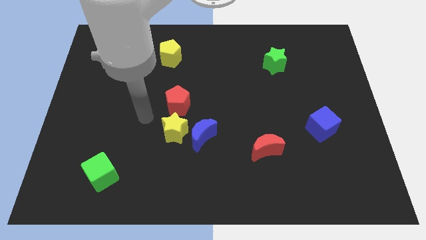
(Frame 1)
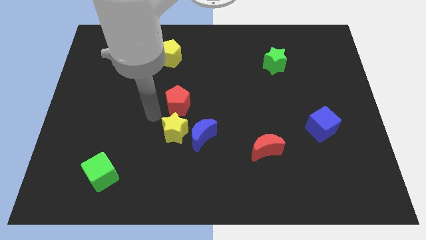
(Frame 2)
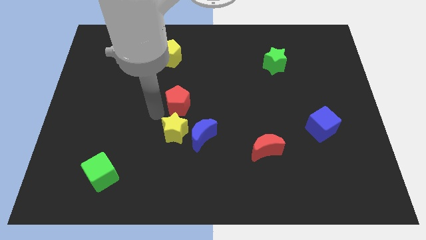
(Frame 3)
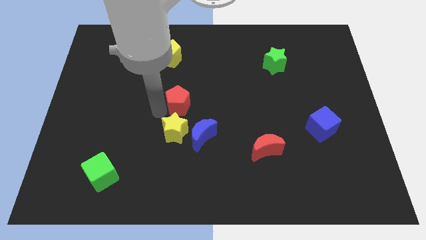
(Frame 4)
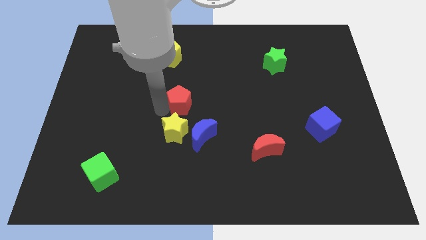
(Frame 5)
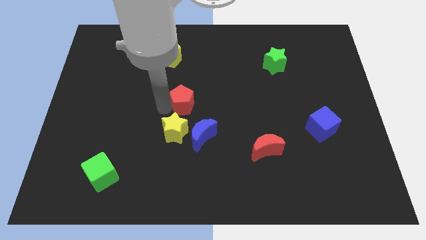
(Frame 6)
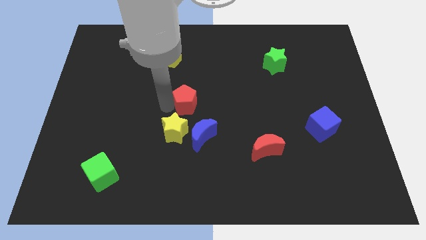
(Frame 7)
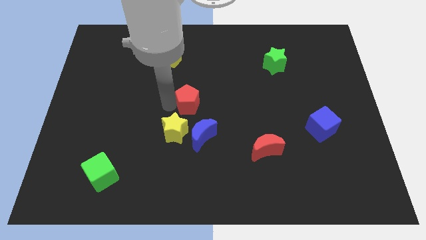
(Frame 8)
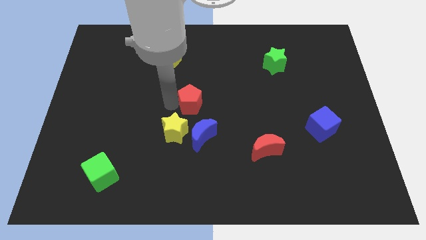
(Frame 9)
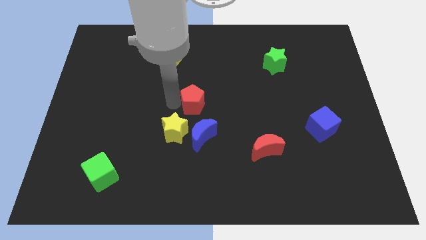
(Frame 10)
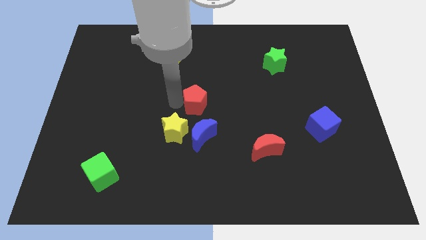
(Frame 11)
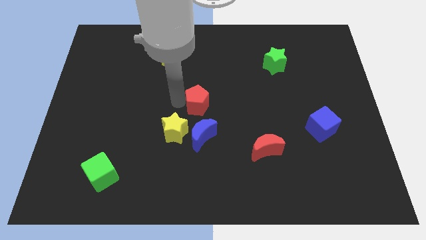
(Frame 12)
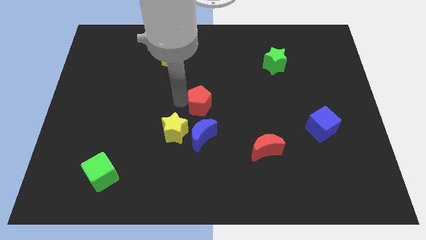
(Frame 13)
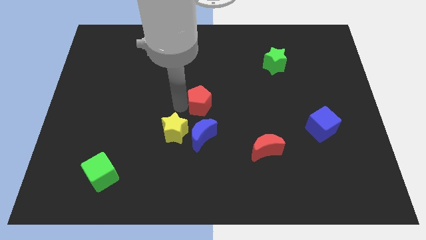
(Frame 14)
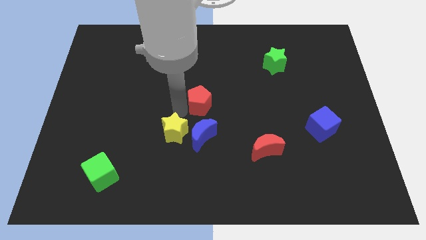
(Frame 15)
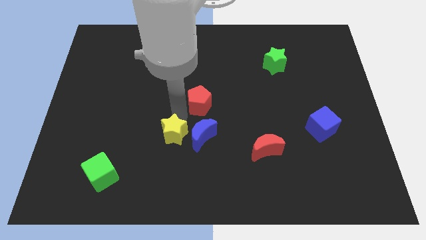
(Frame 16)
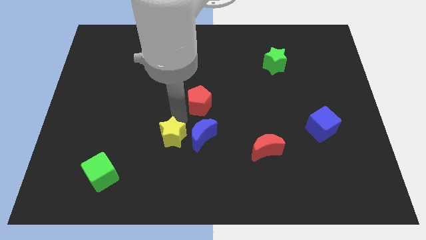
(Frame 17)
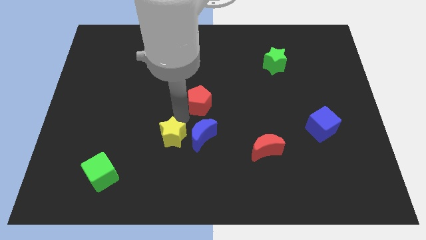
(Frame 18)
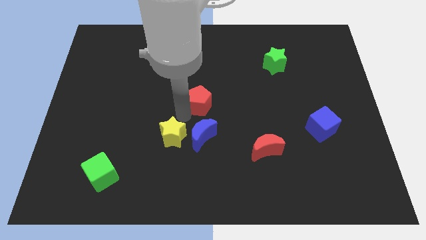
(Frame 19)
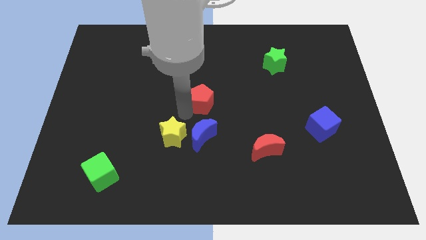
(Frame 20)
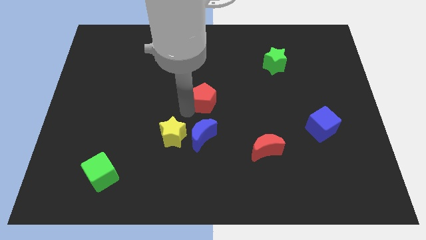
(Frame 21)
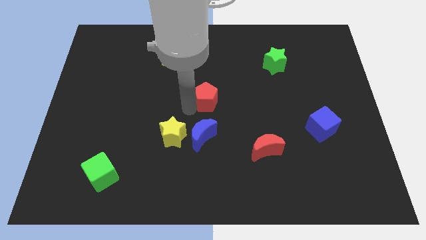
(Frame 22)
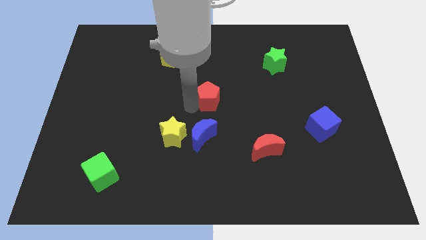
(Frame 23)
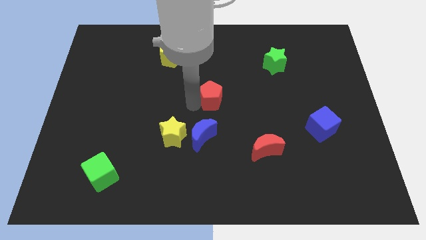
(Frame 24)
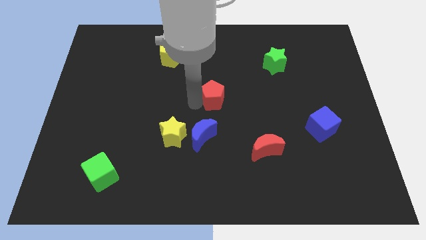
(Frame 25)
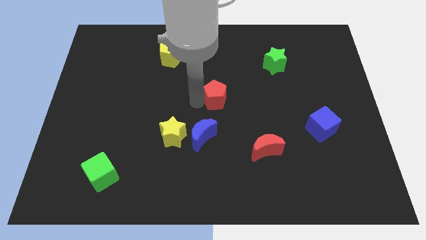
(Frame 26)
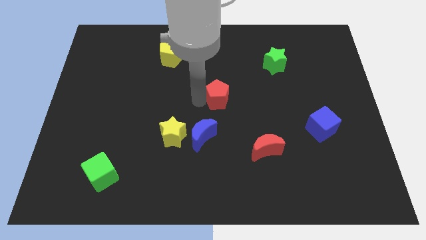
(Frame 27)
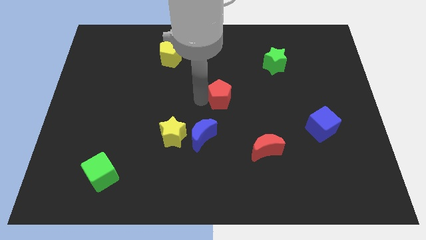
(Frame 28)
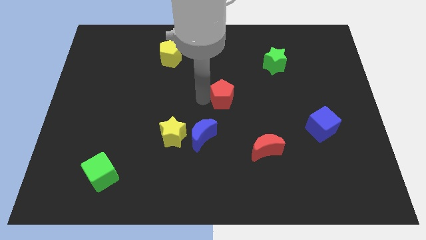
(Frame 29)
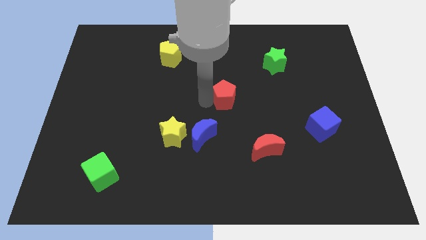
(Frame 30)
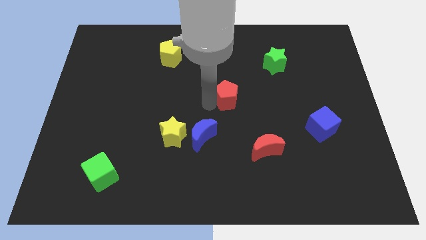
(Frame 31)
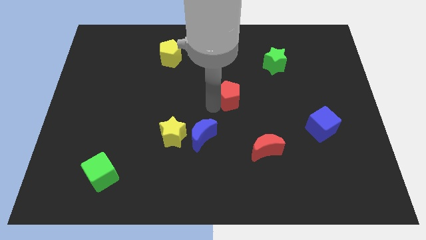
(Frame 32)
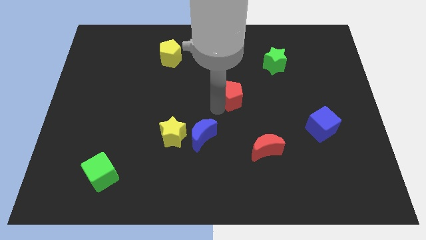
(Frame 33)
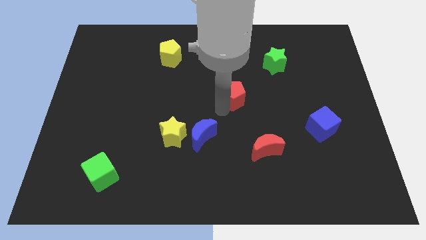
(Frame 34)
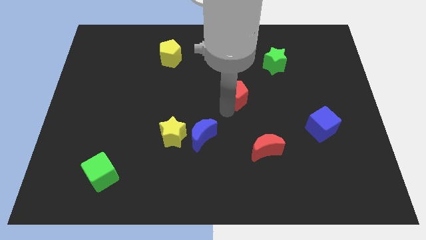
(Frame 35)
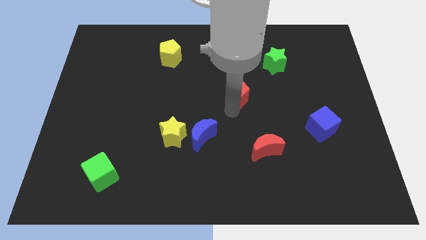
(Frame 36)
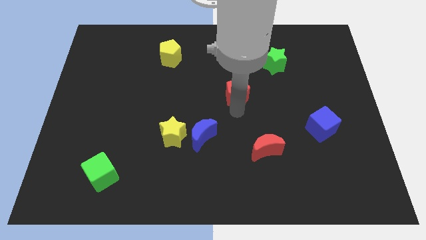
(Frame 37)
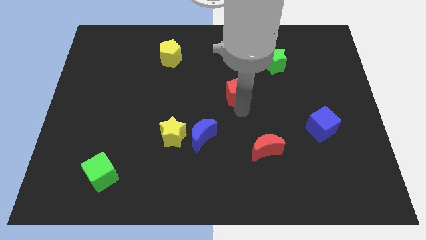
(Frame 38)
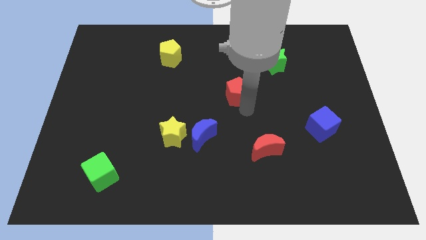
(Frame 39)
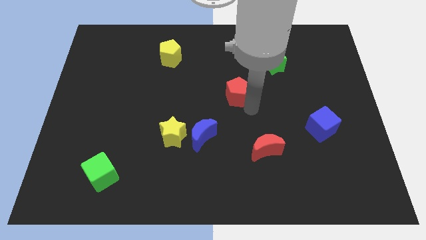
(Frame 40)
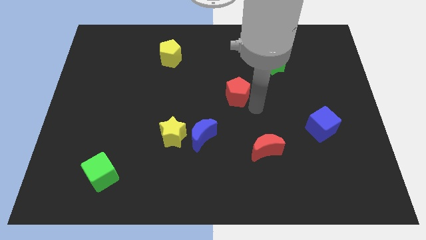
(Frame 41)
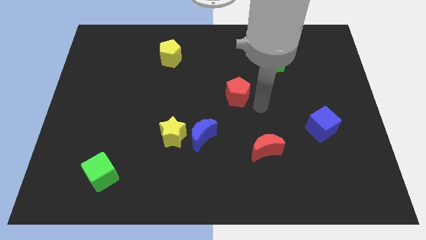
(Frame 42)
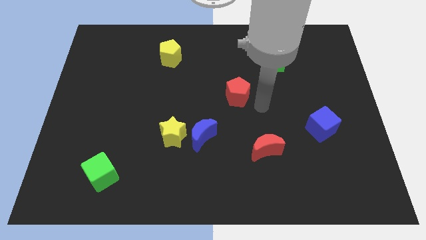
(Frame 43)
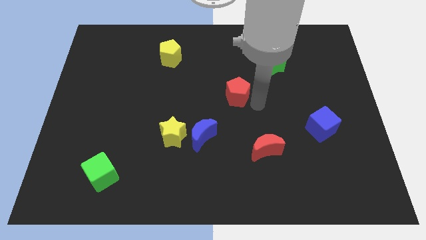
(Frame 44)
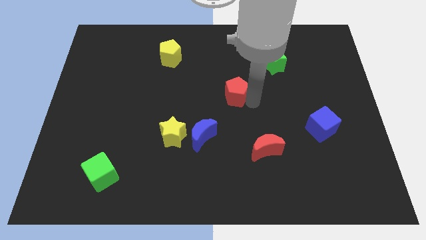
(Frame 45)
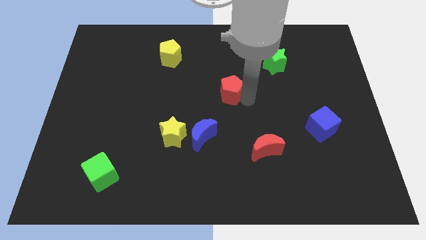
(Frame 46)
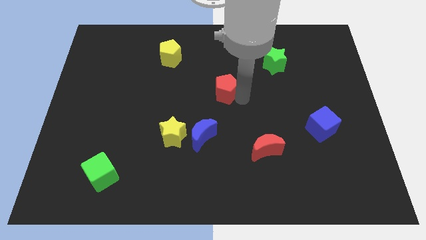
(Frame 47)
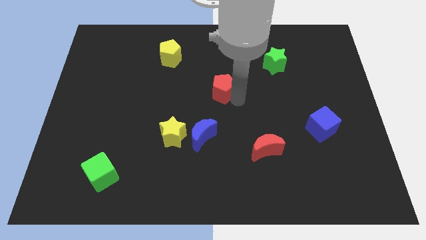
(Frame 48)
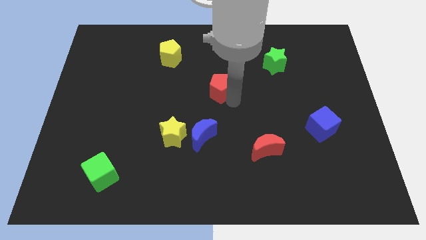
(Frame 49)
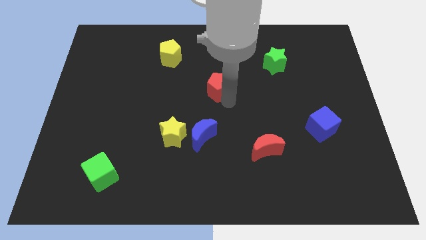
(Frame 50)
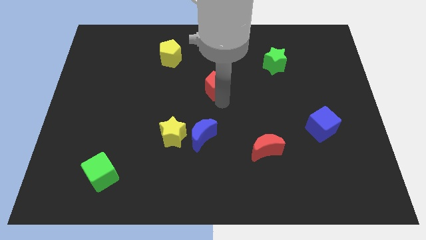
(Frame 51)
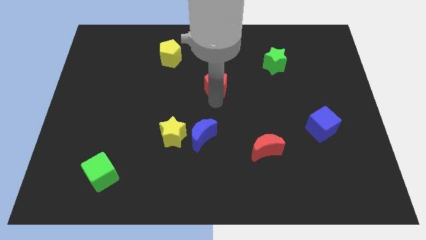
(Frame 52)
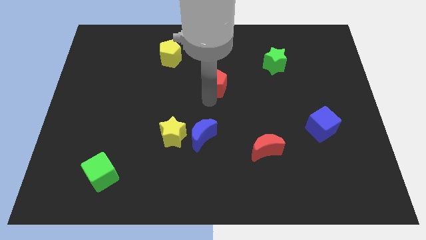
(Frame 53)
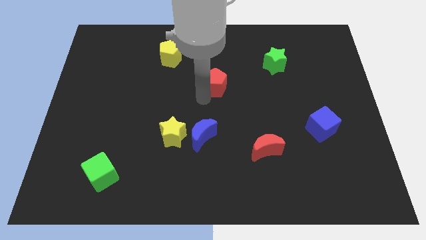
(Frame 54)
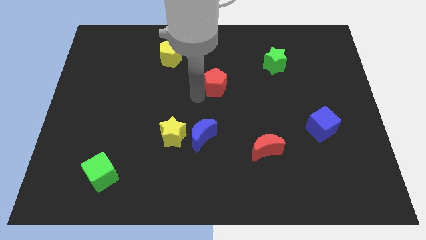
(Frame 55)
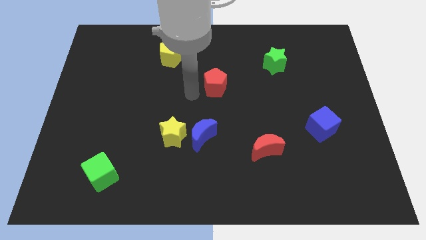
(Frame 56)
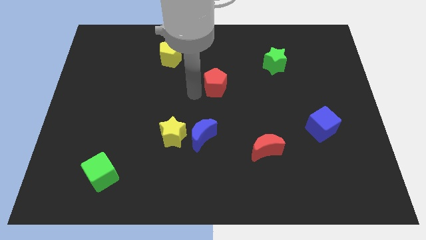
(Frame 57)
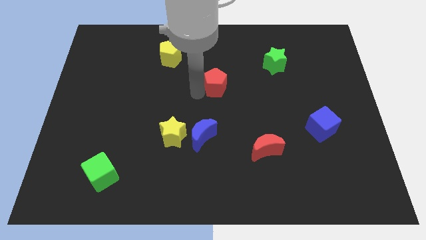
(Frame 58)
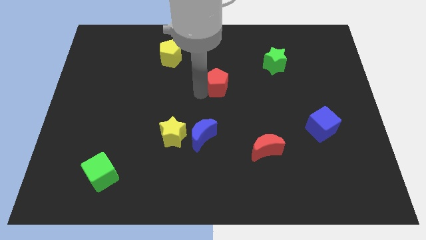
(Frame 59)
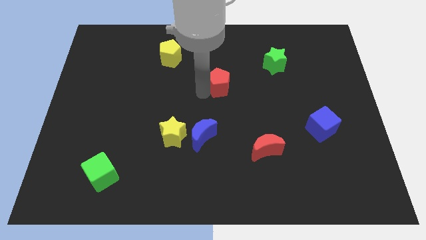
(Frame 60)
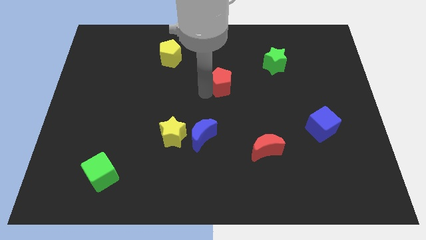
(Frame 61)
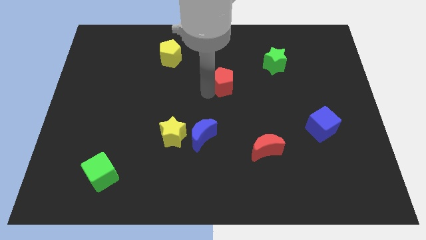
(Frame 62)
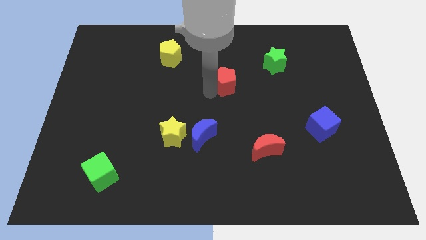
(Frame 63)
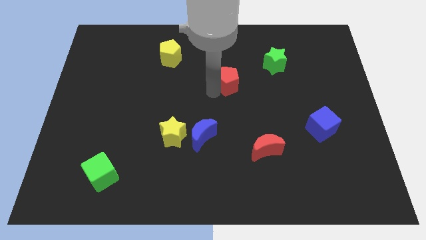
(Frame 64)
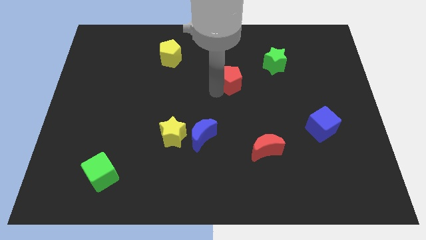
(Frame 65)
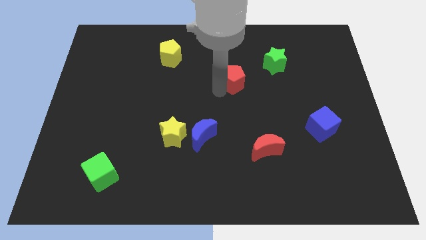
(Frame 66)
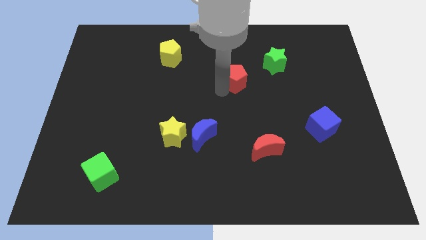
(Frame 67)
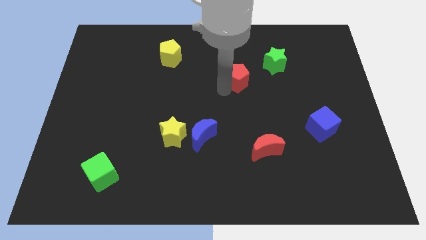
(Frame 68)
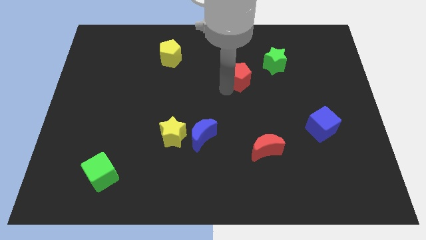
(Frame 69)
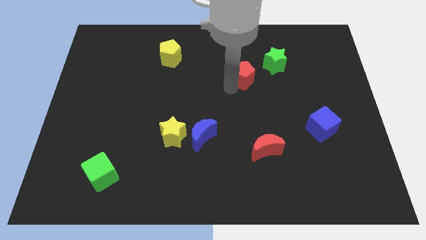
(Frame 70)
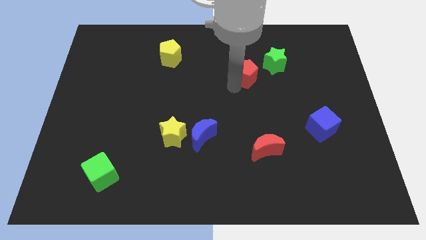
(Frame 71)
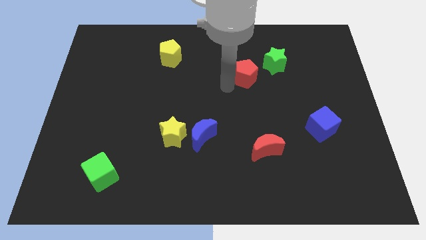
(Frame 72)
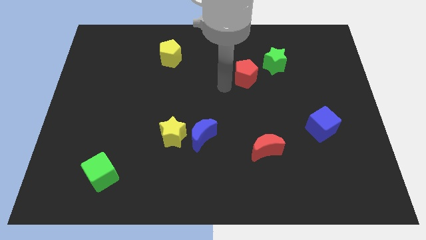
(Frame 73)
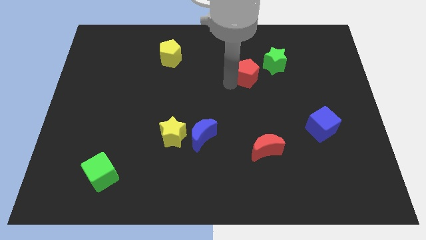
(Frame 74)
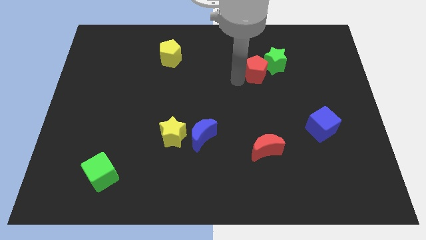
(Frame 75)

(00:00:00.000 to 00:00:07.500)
put the red pentagon towards the green star
